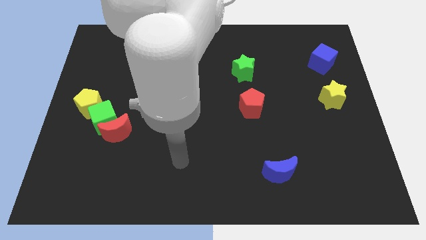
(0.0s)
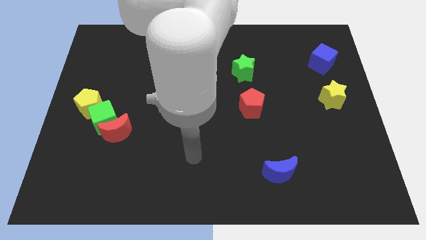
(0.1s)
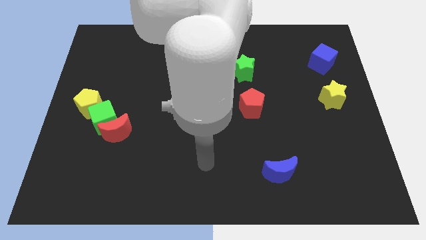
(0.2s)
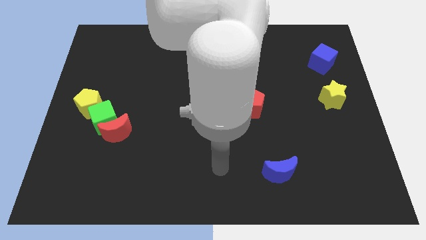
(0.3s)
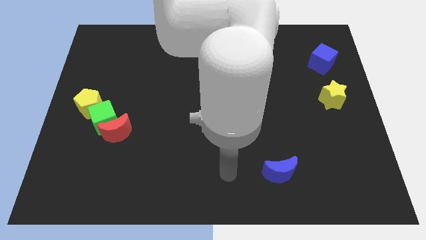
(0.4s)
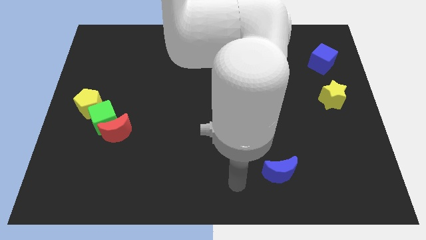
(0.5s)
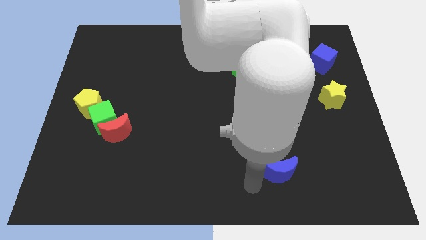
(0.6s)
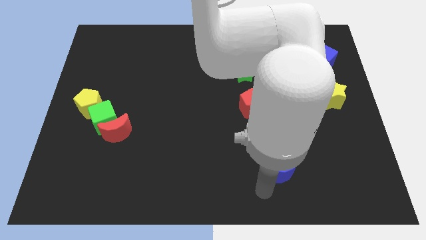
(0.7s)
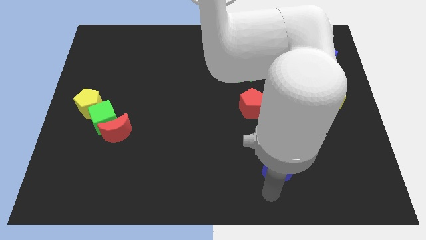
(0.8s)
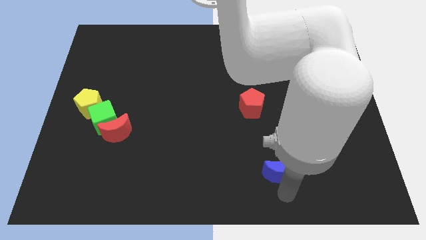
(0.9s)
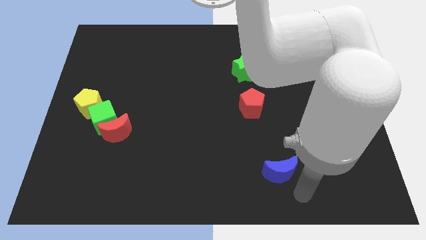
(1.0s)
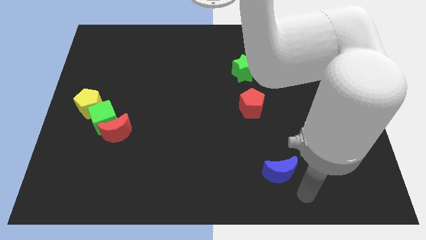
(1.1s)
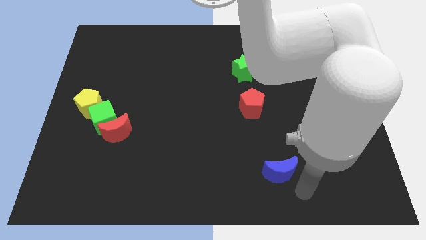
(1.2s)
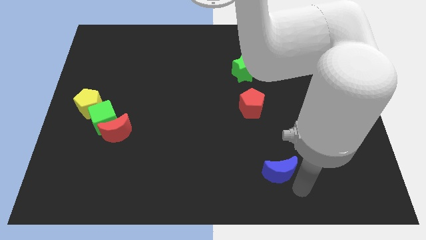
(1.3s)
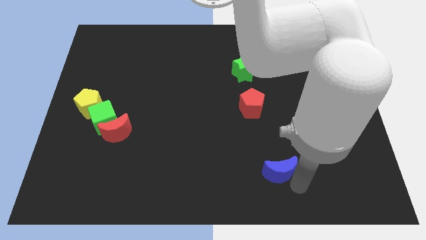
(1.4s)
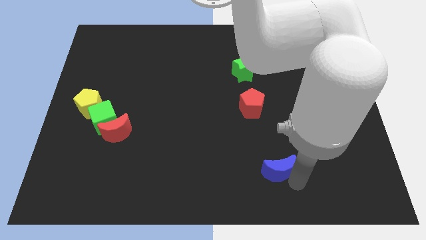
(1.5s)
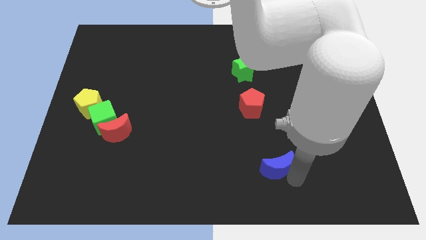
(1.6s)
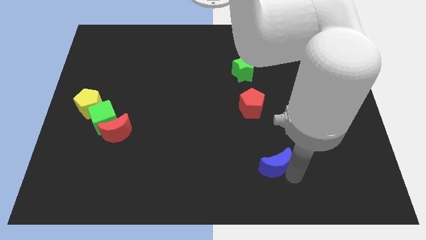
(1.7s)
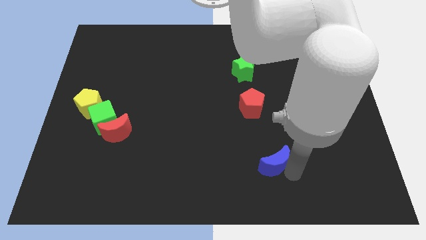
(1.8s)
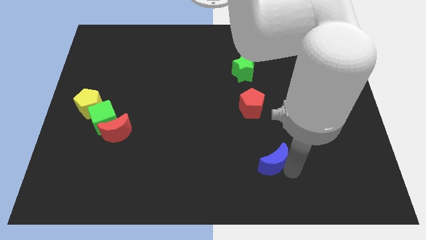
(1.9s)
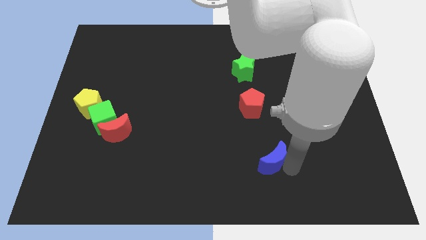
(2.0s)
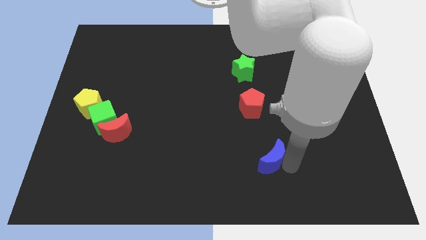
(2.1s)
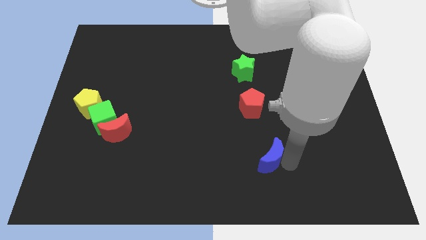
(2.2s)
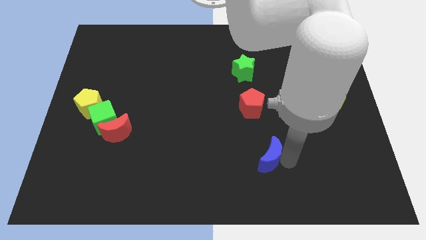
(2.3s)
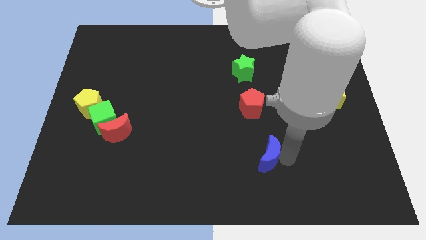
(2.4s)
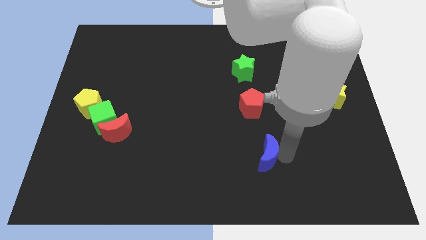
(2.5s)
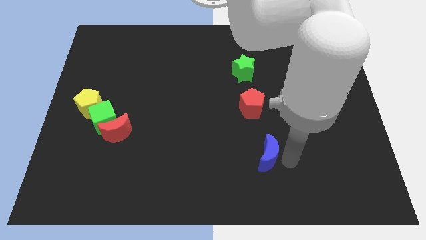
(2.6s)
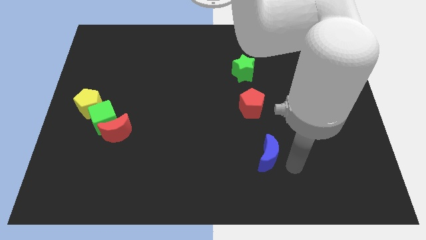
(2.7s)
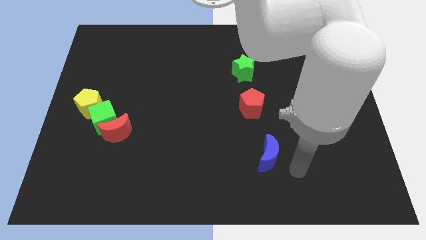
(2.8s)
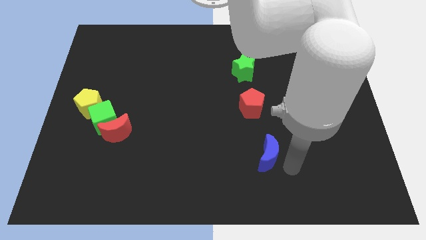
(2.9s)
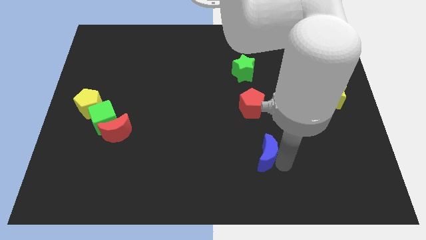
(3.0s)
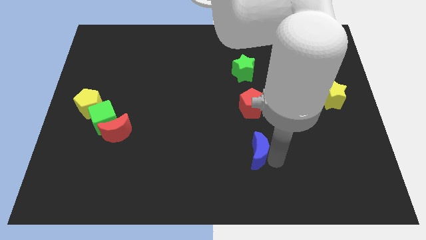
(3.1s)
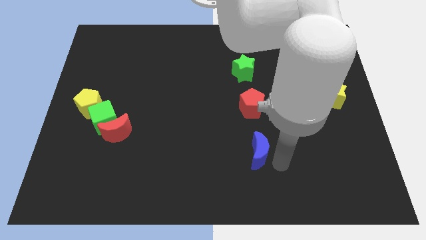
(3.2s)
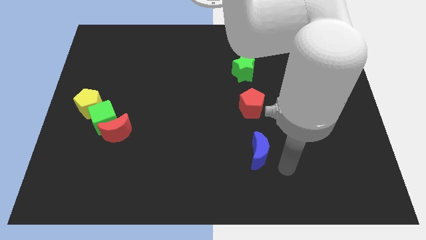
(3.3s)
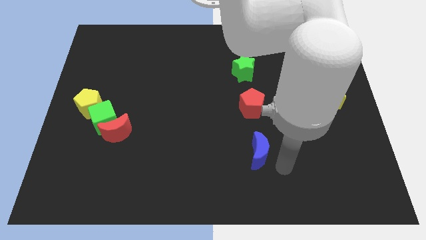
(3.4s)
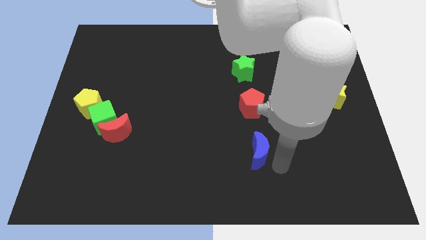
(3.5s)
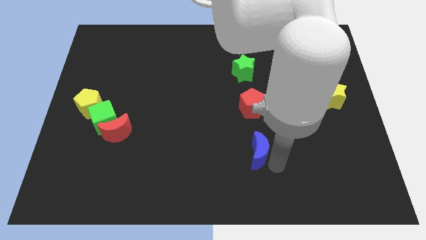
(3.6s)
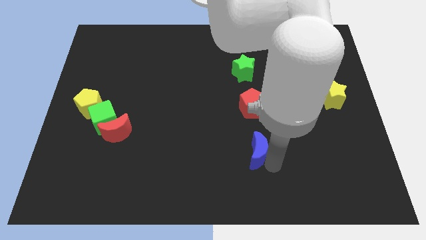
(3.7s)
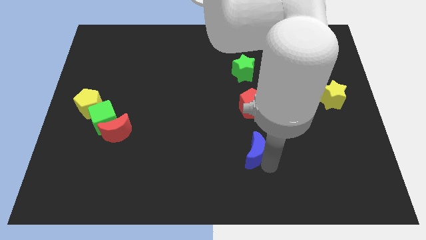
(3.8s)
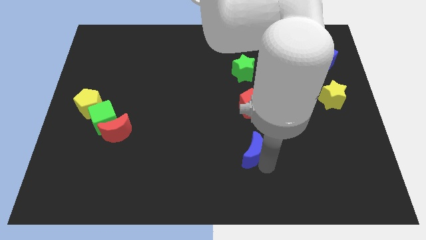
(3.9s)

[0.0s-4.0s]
slide the blue moon slightly up and to the left

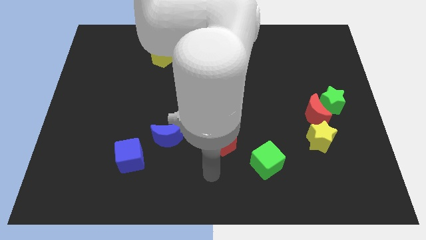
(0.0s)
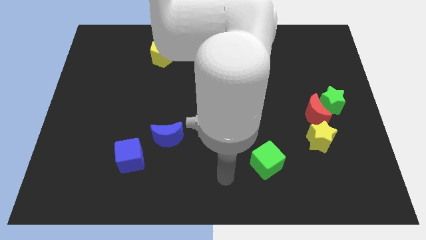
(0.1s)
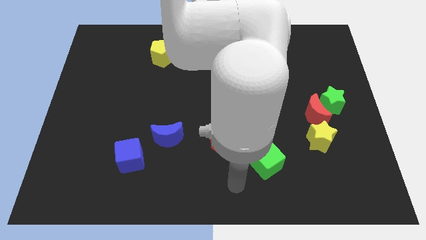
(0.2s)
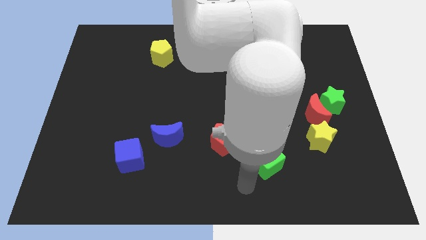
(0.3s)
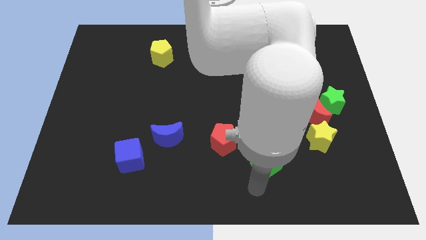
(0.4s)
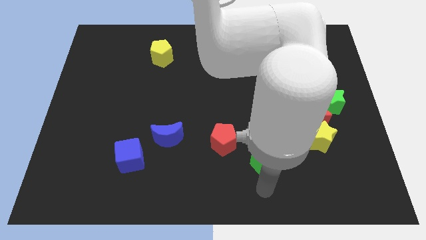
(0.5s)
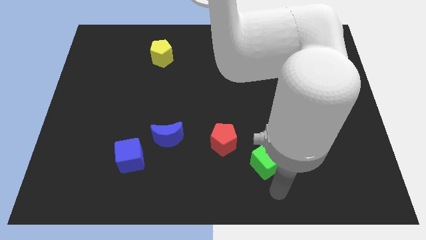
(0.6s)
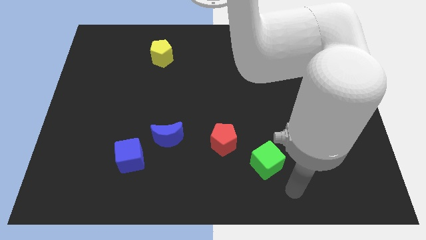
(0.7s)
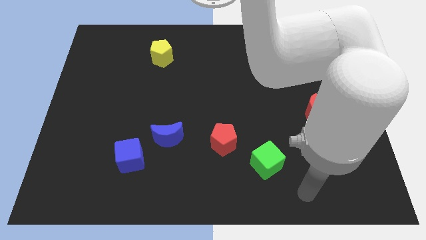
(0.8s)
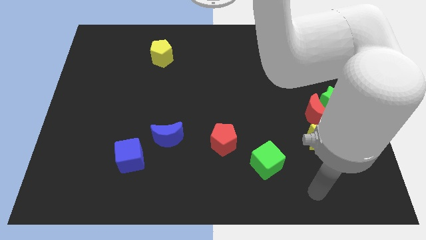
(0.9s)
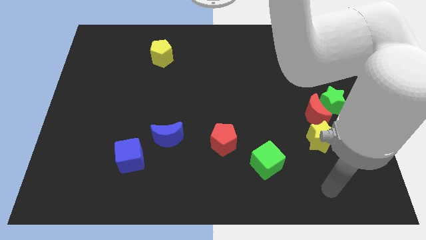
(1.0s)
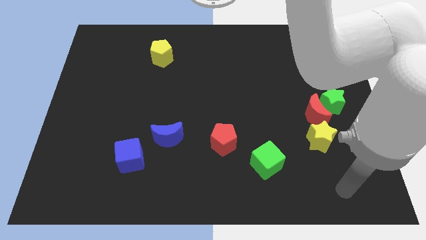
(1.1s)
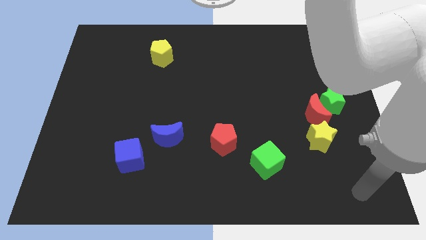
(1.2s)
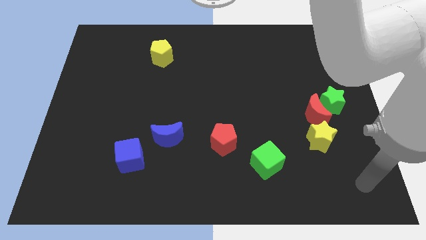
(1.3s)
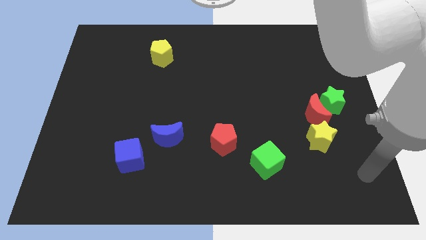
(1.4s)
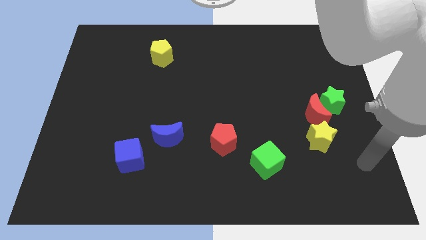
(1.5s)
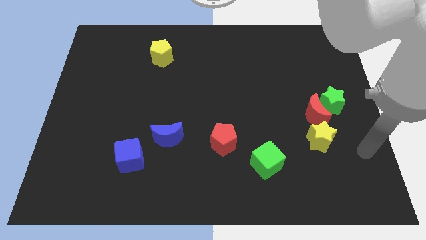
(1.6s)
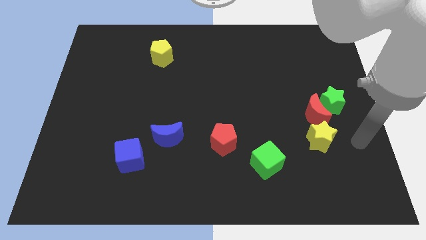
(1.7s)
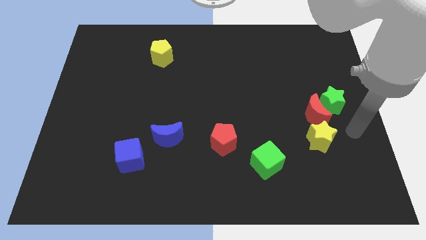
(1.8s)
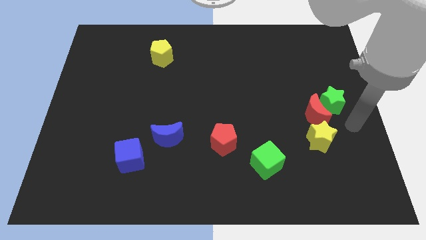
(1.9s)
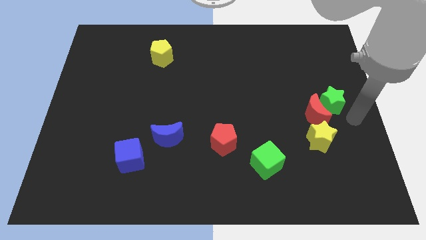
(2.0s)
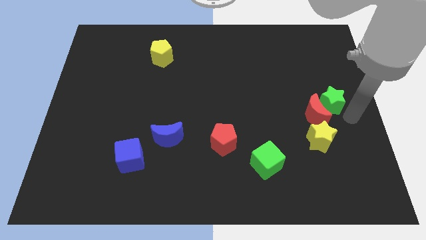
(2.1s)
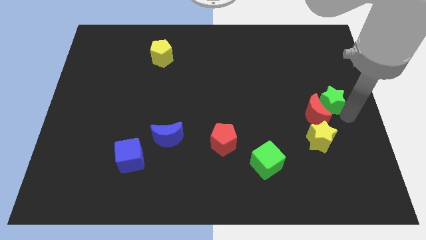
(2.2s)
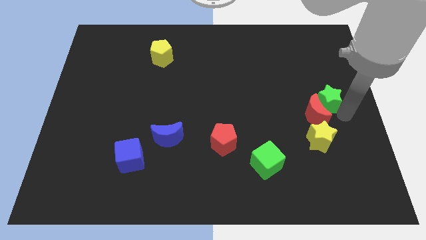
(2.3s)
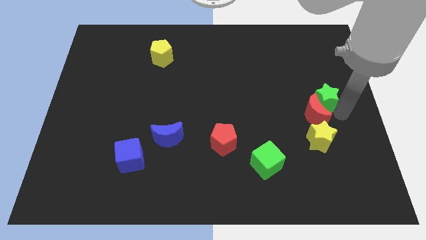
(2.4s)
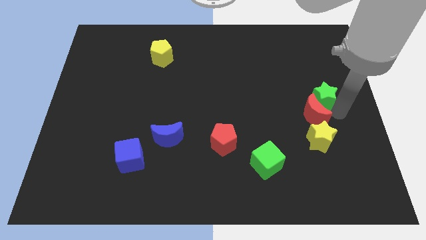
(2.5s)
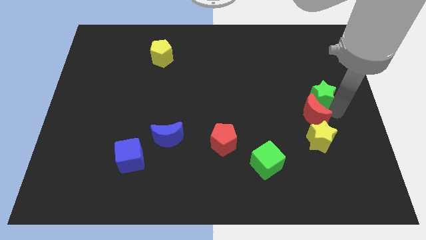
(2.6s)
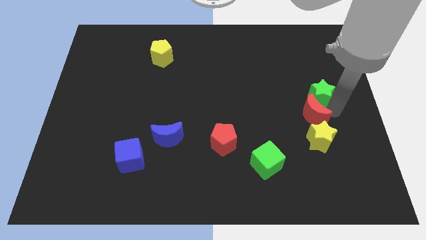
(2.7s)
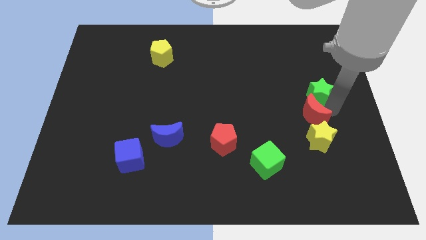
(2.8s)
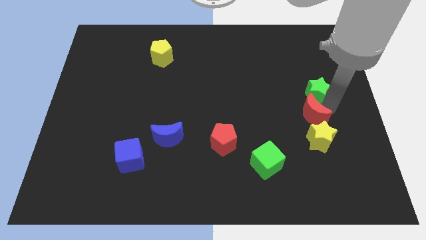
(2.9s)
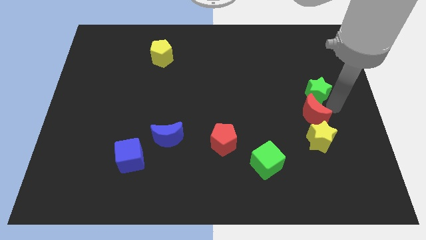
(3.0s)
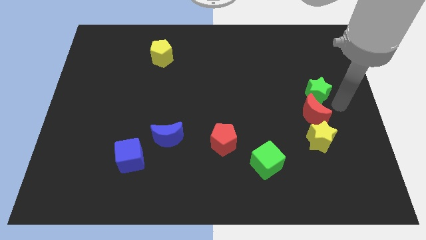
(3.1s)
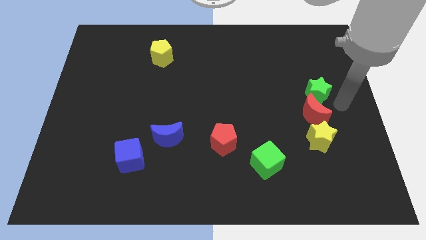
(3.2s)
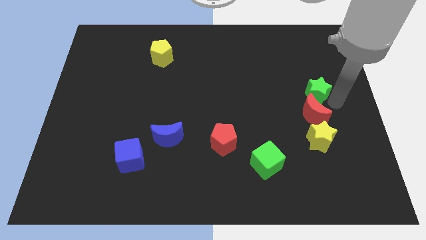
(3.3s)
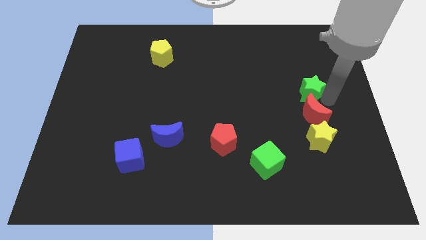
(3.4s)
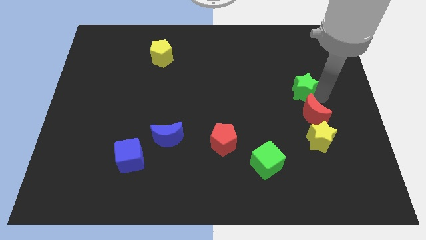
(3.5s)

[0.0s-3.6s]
slide the green star upwards and then to the left a little

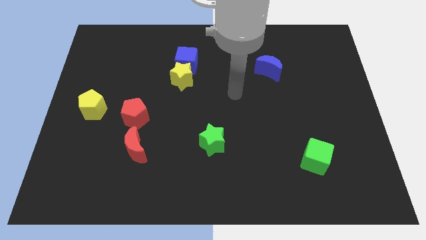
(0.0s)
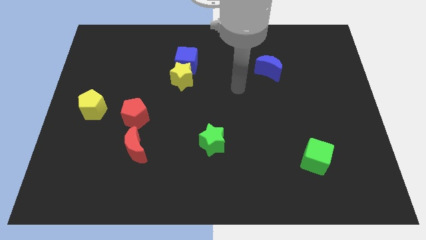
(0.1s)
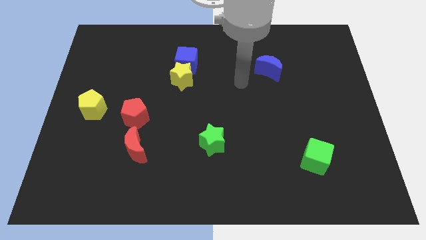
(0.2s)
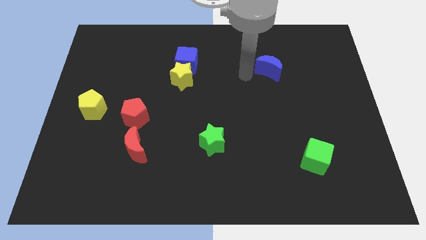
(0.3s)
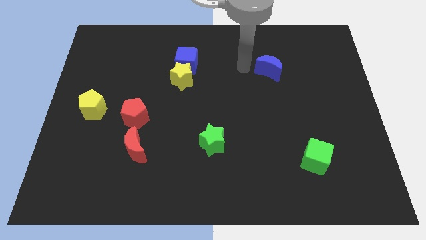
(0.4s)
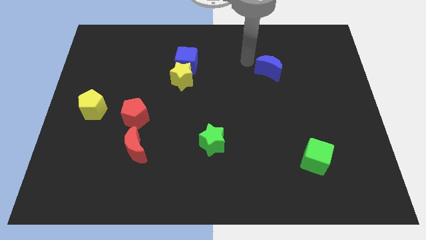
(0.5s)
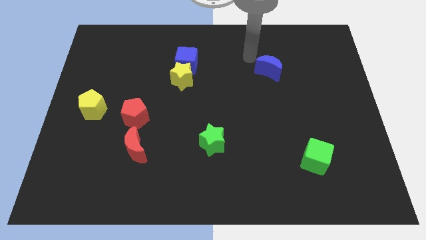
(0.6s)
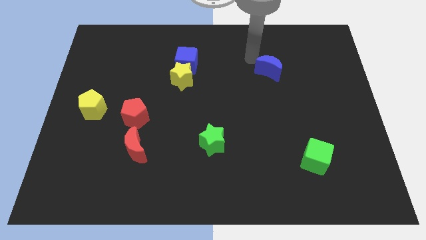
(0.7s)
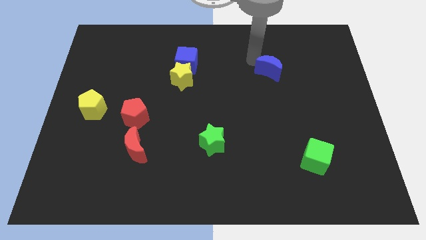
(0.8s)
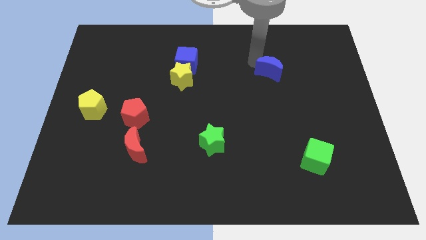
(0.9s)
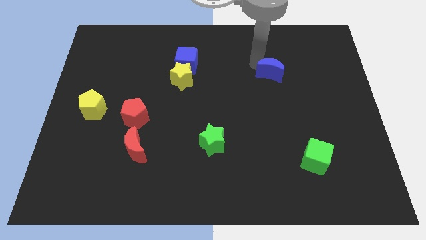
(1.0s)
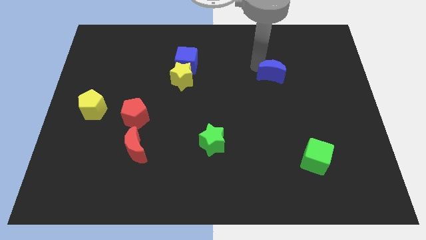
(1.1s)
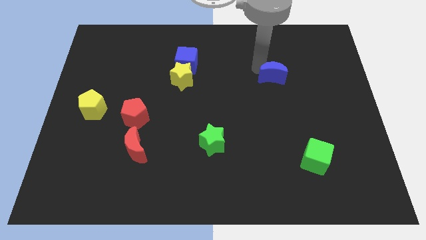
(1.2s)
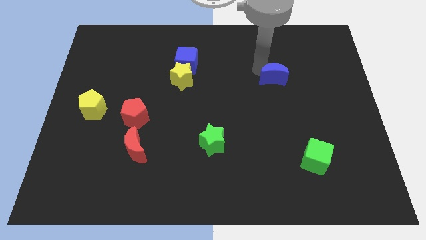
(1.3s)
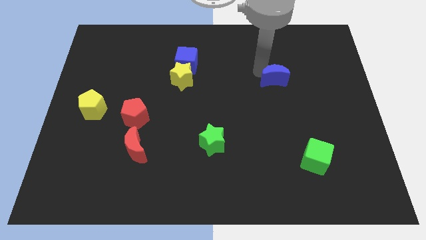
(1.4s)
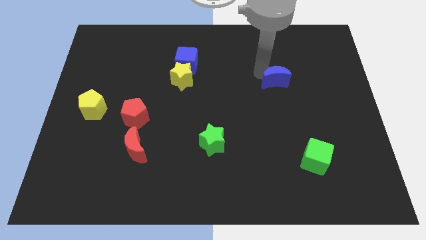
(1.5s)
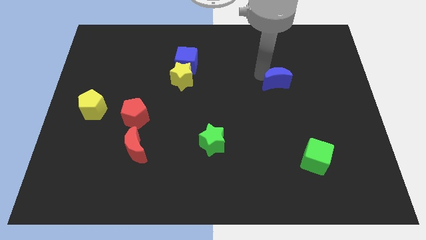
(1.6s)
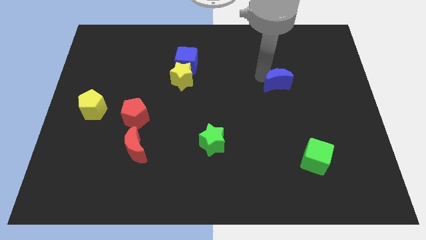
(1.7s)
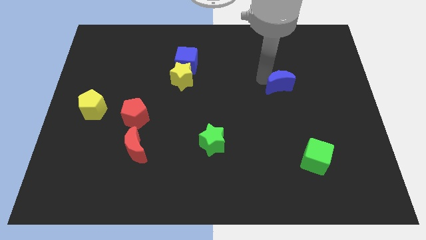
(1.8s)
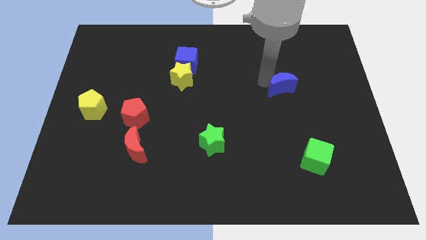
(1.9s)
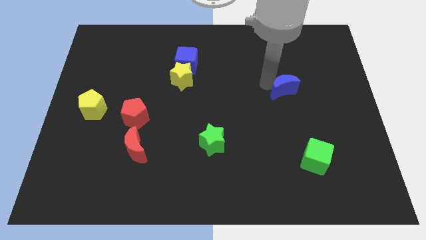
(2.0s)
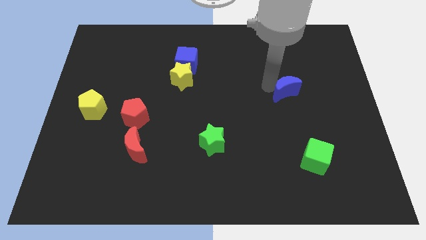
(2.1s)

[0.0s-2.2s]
push the blue moon a little diagonally down and to the right
